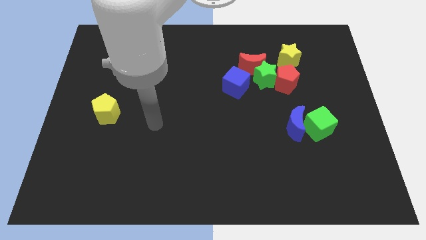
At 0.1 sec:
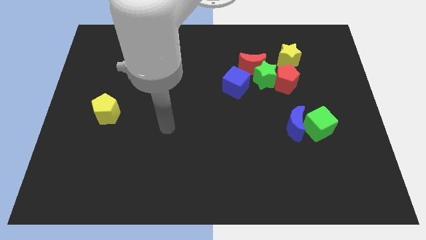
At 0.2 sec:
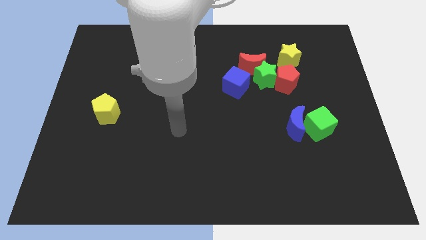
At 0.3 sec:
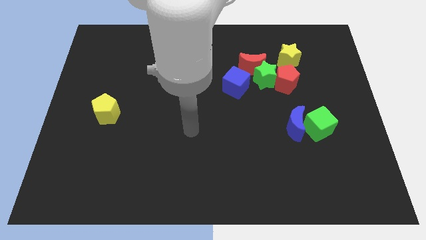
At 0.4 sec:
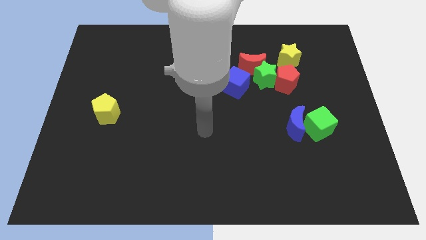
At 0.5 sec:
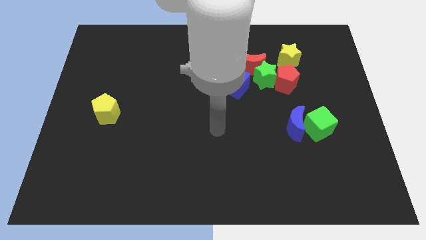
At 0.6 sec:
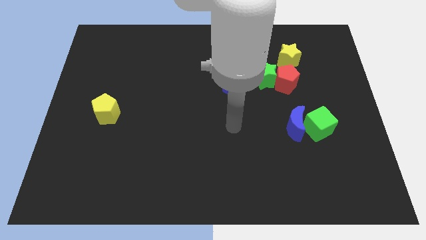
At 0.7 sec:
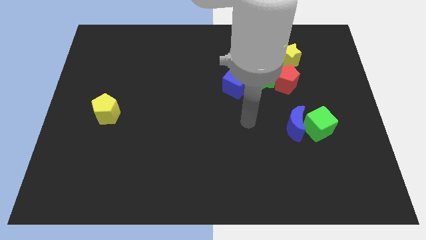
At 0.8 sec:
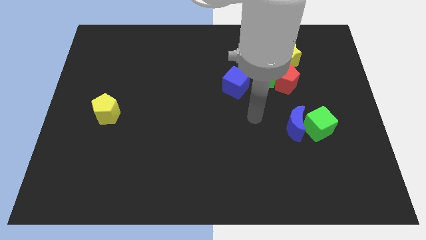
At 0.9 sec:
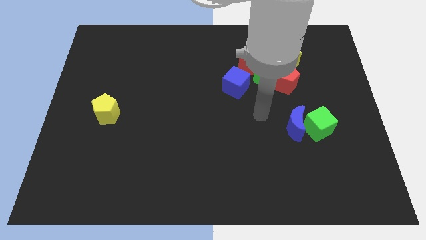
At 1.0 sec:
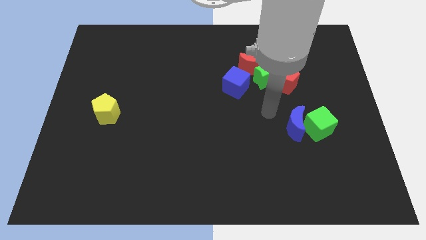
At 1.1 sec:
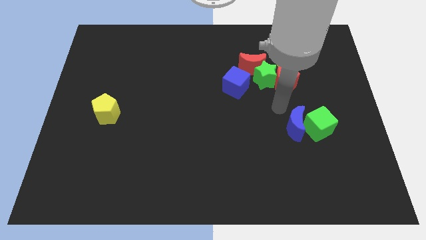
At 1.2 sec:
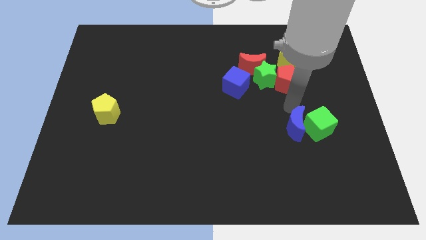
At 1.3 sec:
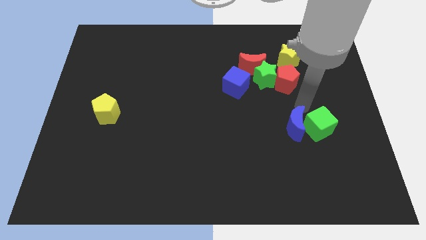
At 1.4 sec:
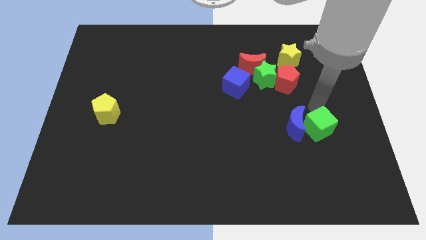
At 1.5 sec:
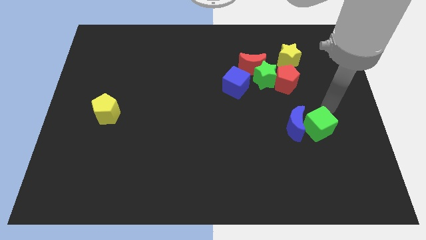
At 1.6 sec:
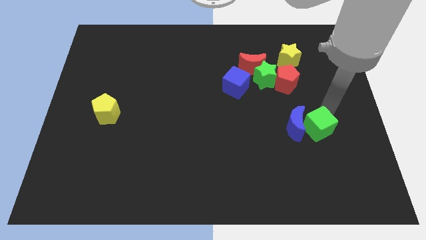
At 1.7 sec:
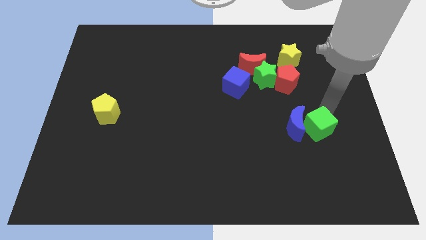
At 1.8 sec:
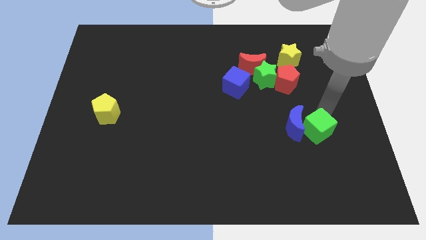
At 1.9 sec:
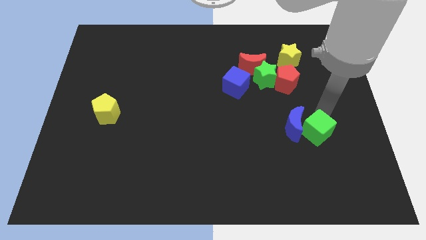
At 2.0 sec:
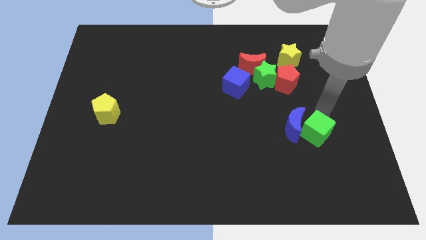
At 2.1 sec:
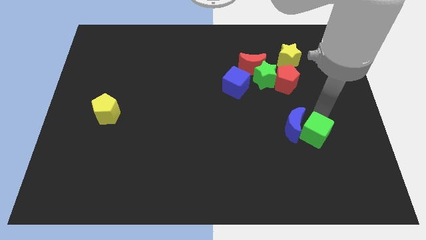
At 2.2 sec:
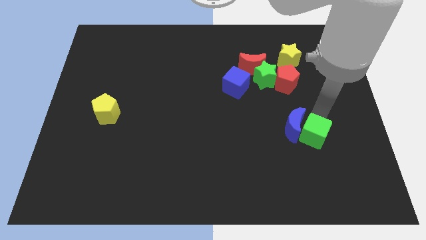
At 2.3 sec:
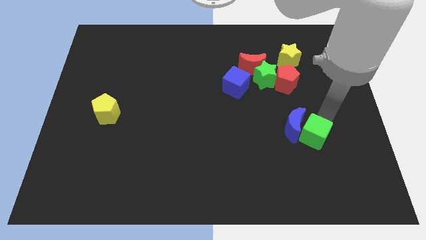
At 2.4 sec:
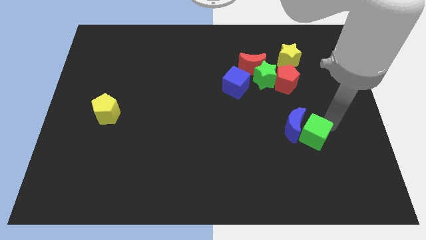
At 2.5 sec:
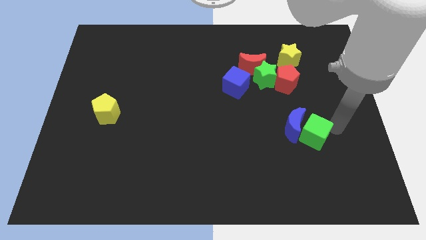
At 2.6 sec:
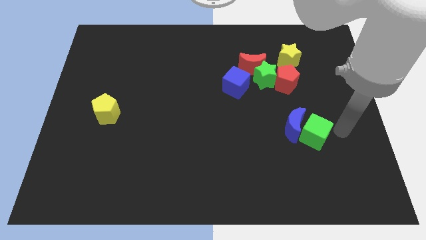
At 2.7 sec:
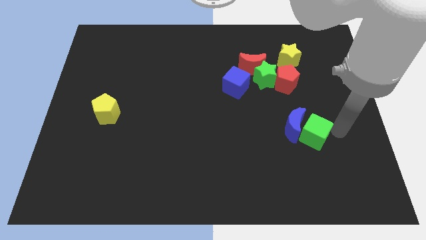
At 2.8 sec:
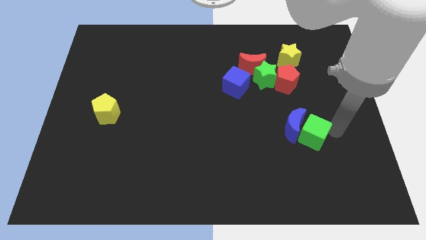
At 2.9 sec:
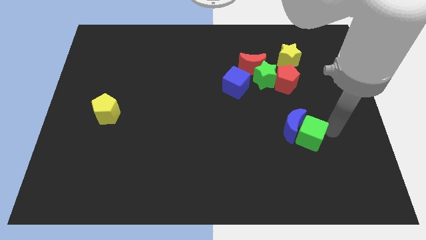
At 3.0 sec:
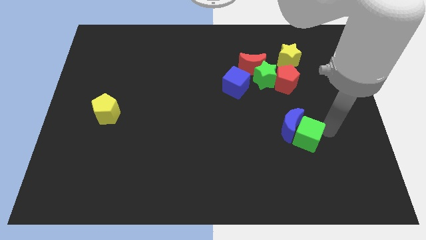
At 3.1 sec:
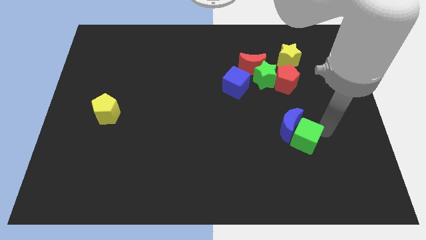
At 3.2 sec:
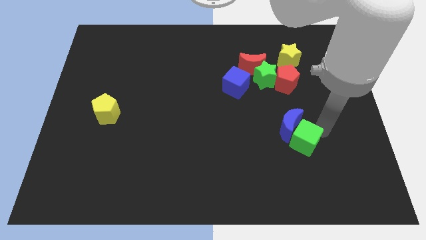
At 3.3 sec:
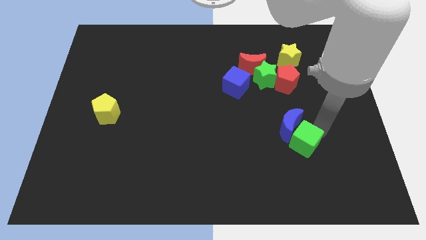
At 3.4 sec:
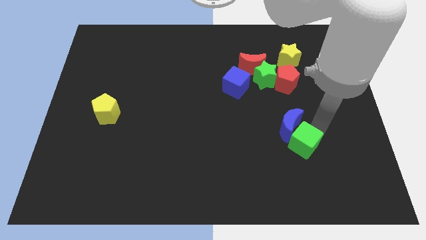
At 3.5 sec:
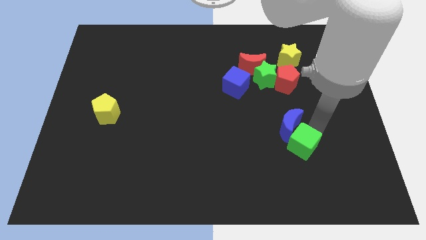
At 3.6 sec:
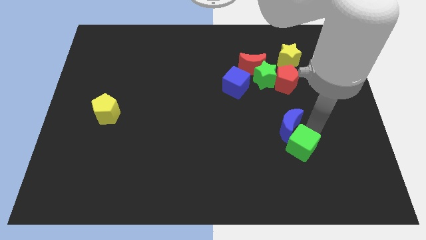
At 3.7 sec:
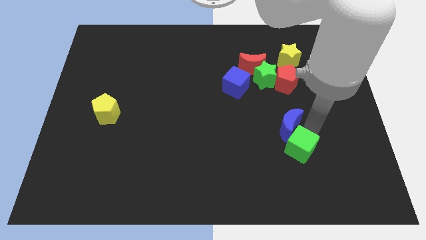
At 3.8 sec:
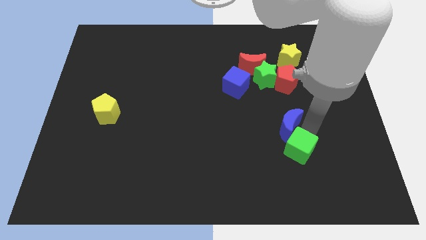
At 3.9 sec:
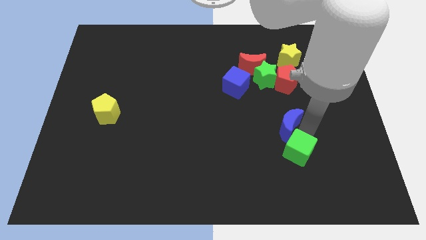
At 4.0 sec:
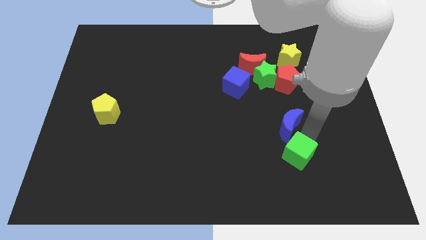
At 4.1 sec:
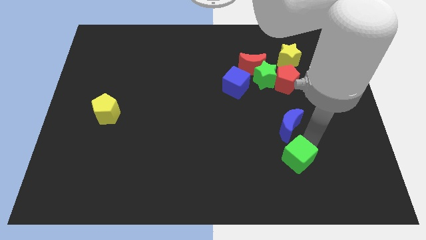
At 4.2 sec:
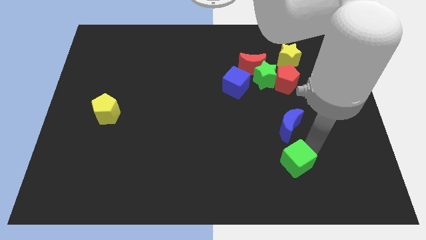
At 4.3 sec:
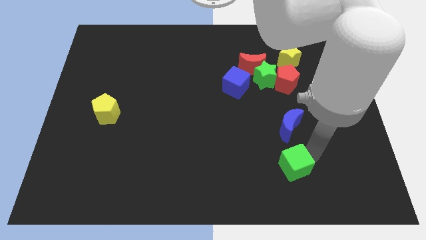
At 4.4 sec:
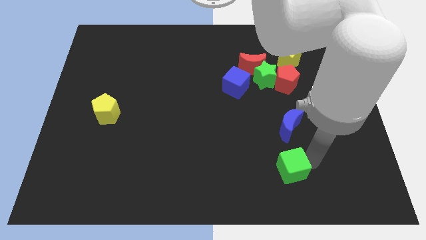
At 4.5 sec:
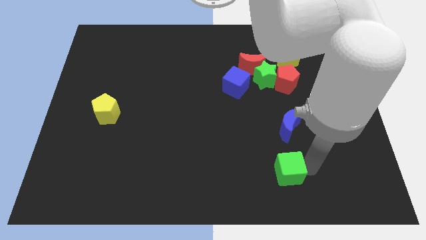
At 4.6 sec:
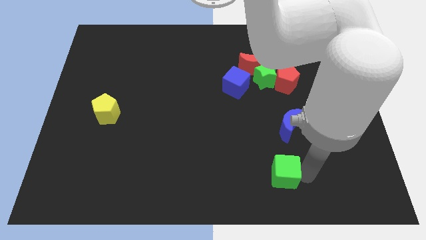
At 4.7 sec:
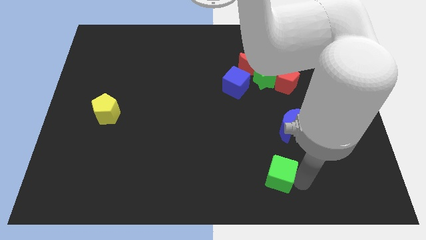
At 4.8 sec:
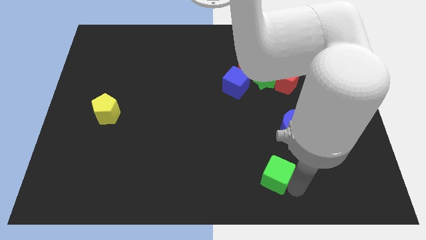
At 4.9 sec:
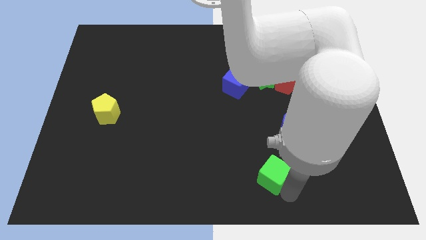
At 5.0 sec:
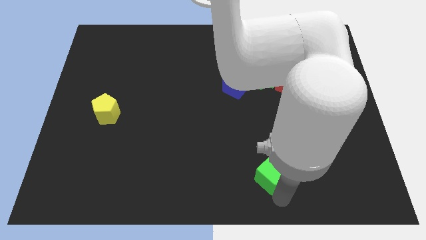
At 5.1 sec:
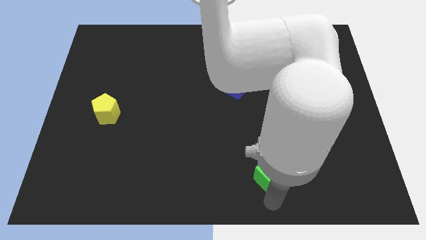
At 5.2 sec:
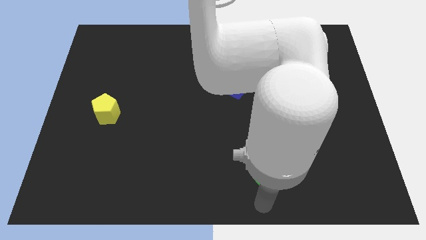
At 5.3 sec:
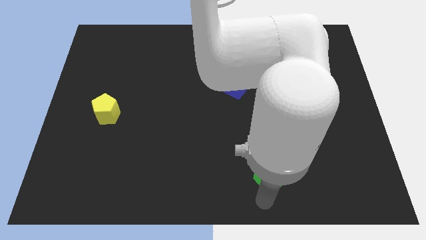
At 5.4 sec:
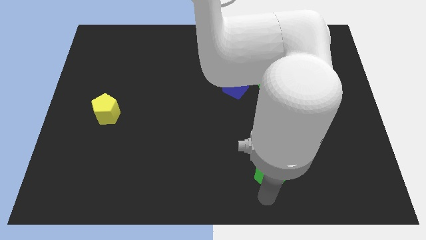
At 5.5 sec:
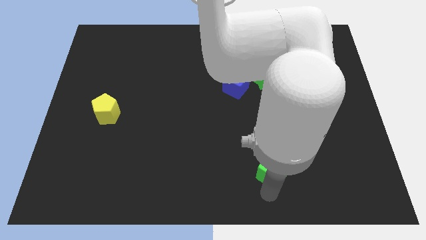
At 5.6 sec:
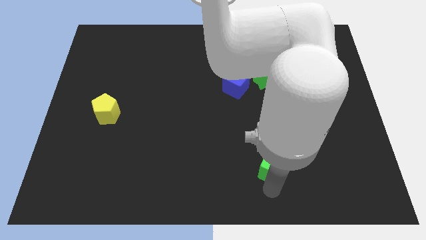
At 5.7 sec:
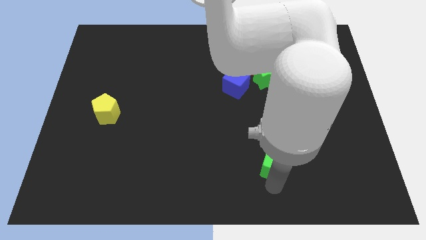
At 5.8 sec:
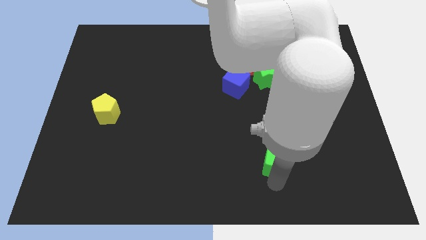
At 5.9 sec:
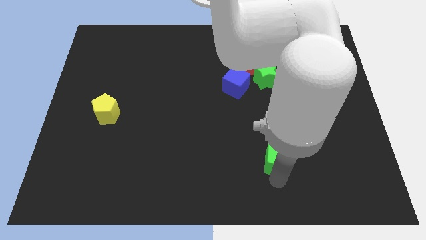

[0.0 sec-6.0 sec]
move the green cube a bit to the left

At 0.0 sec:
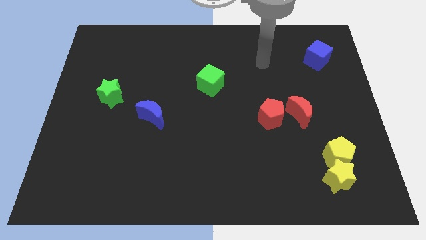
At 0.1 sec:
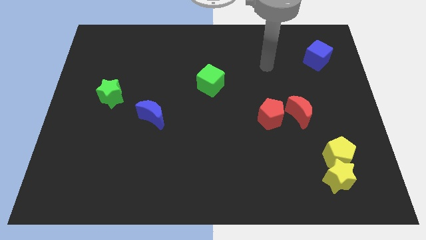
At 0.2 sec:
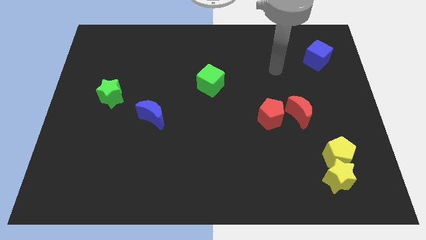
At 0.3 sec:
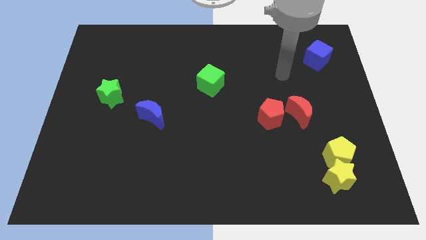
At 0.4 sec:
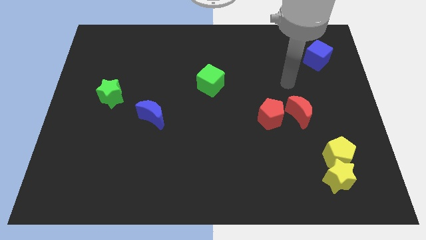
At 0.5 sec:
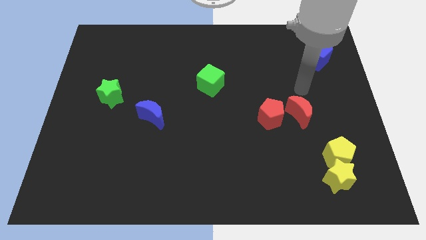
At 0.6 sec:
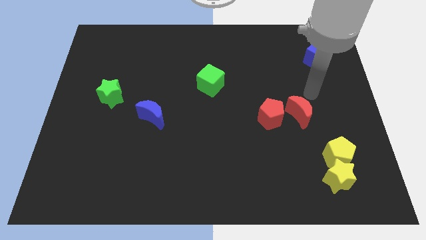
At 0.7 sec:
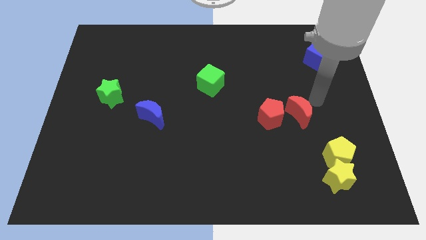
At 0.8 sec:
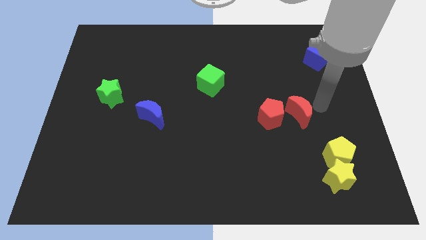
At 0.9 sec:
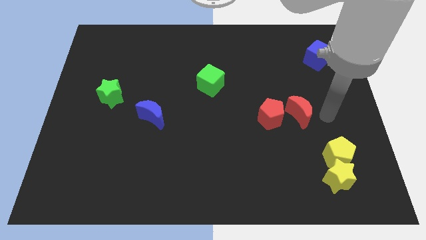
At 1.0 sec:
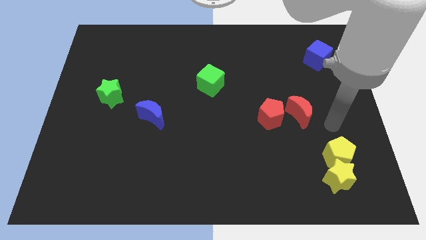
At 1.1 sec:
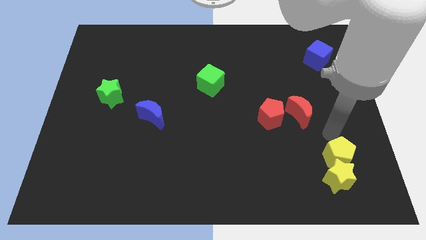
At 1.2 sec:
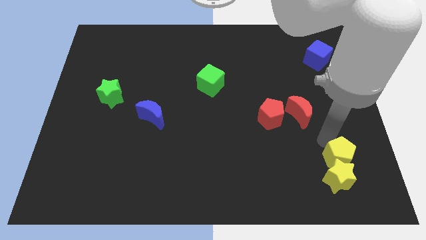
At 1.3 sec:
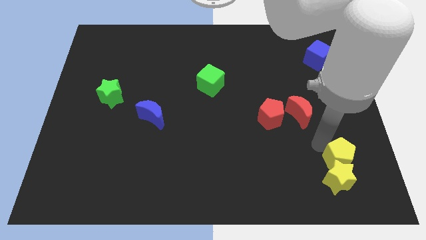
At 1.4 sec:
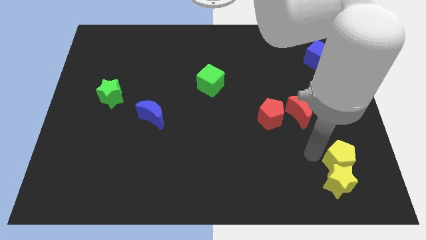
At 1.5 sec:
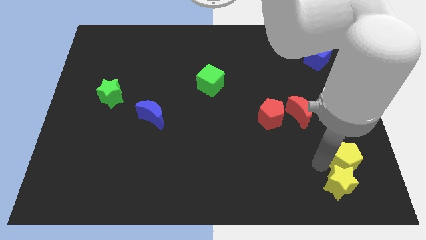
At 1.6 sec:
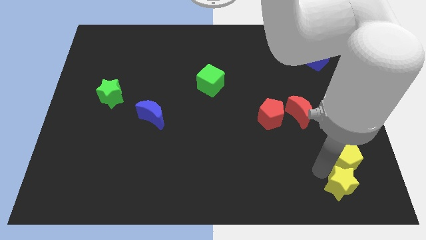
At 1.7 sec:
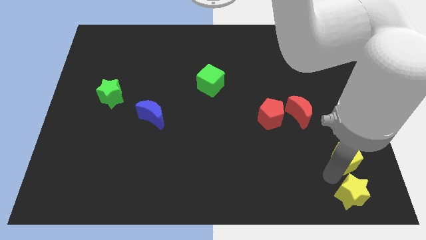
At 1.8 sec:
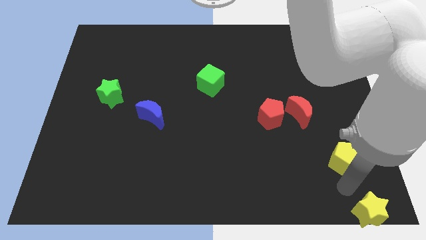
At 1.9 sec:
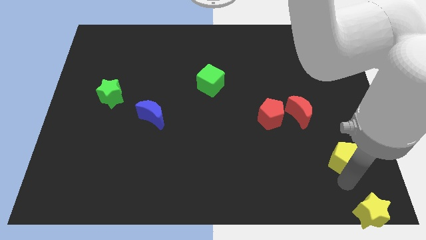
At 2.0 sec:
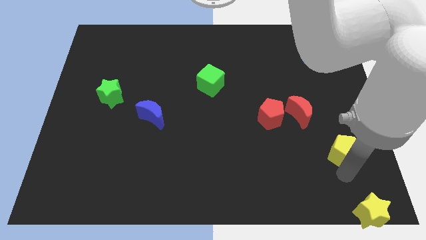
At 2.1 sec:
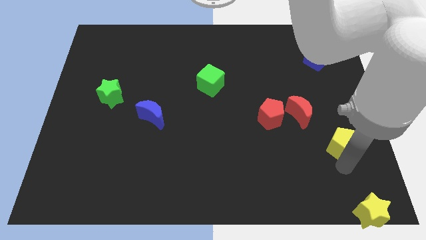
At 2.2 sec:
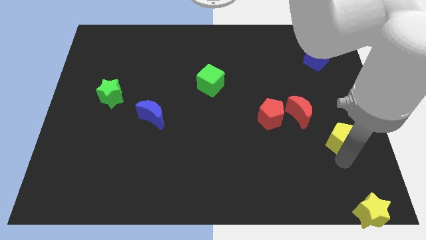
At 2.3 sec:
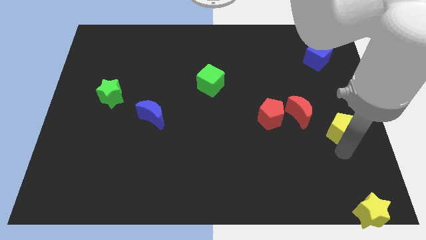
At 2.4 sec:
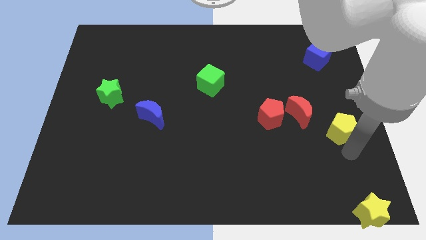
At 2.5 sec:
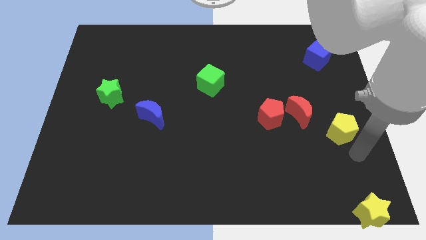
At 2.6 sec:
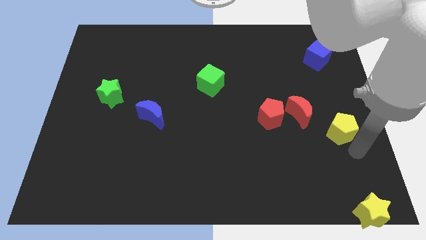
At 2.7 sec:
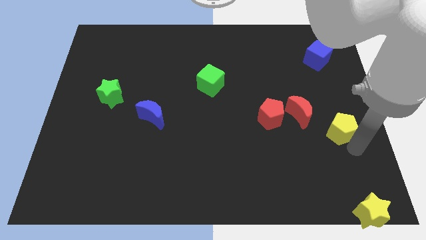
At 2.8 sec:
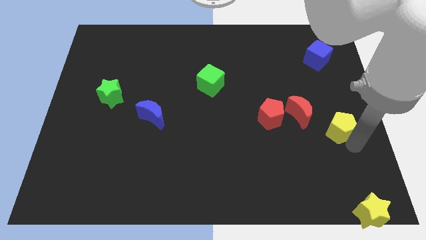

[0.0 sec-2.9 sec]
slide the yellow pentagon upwards a little bit
